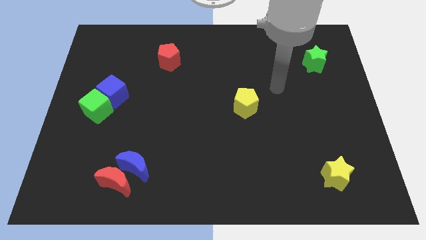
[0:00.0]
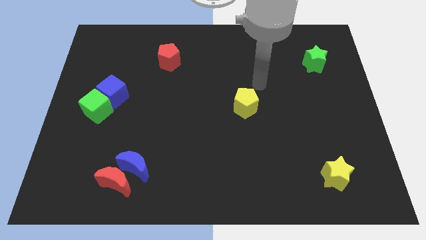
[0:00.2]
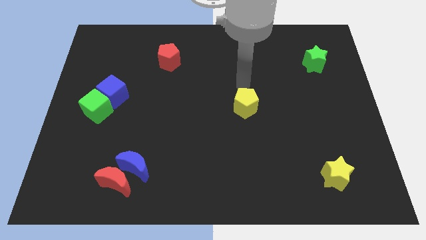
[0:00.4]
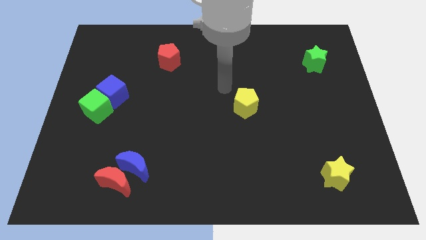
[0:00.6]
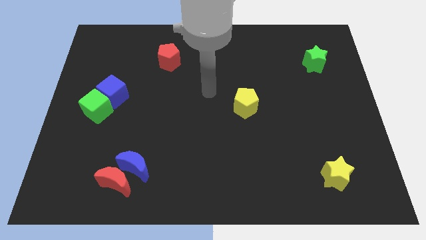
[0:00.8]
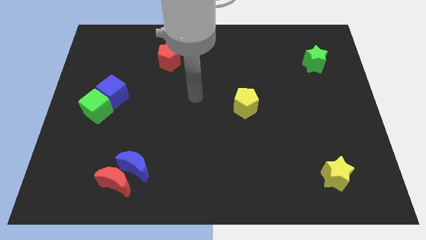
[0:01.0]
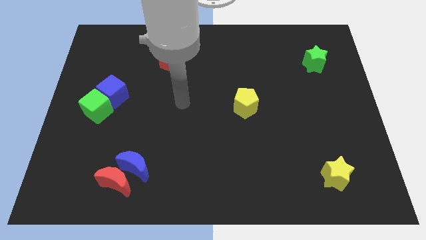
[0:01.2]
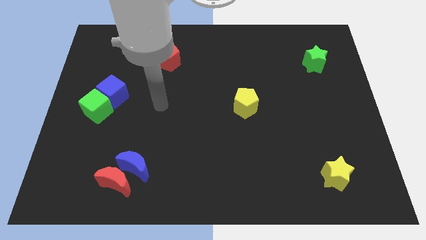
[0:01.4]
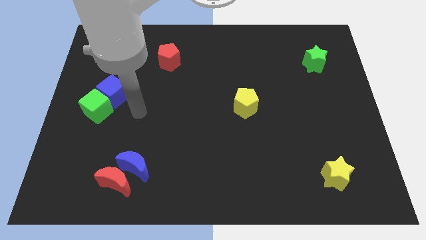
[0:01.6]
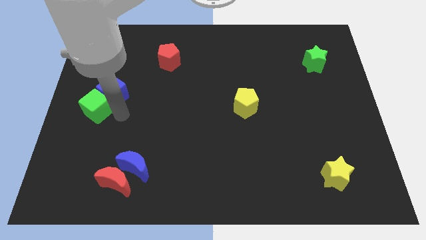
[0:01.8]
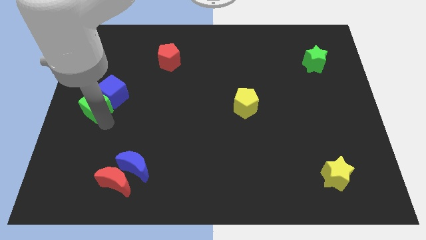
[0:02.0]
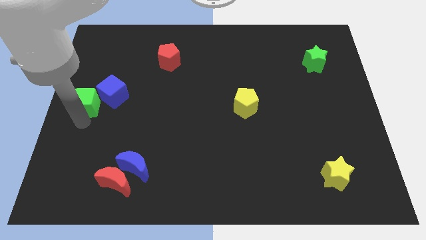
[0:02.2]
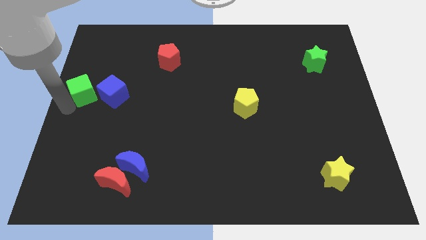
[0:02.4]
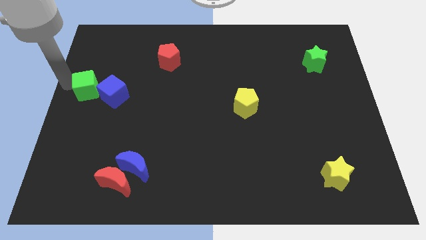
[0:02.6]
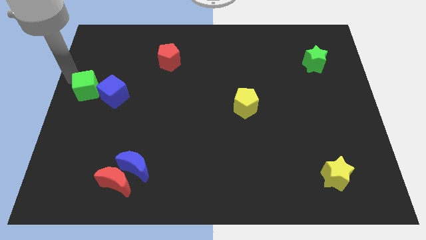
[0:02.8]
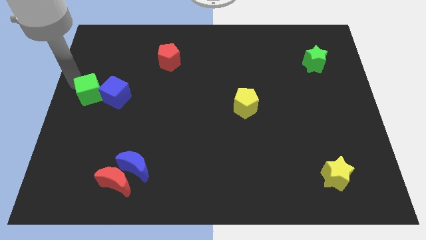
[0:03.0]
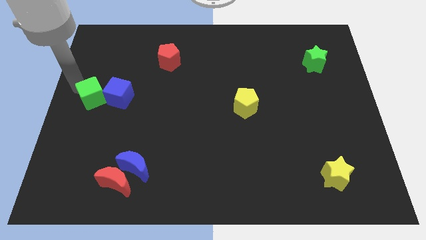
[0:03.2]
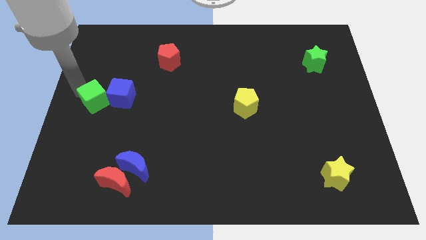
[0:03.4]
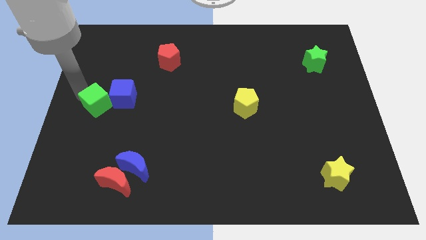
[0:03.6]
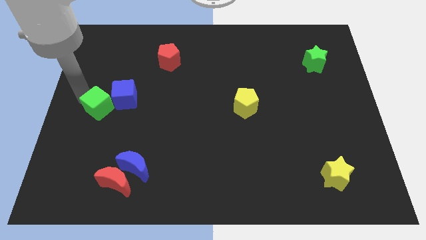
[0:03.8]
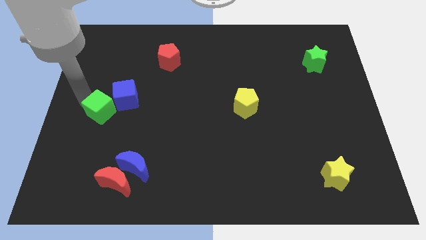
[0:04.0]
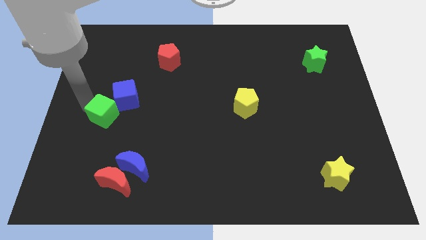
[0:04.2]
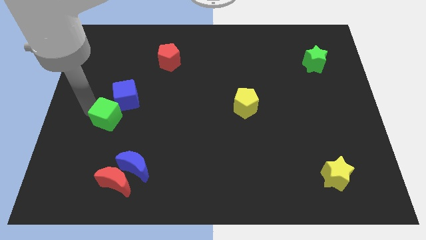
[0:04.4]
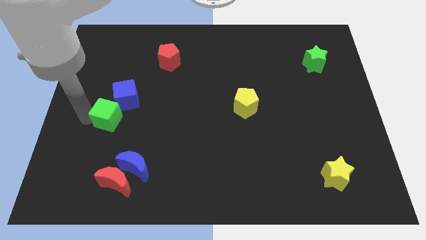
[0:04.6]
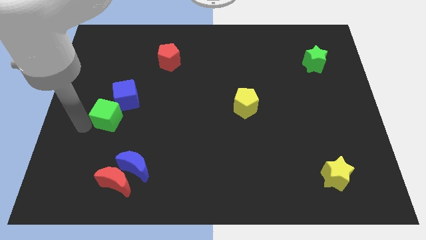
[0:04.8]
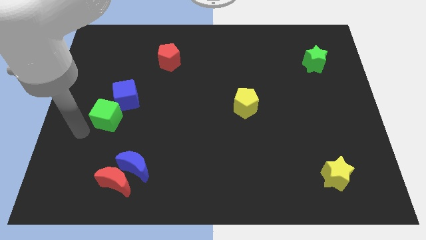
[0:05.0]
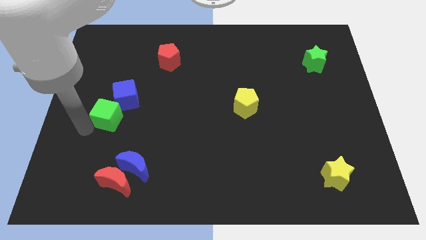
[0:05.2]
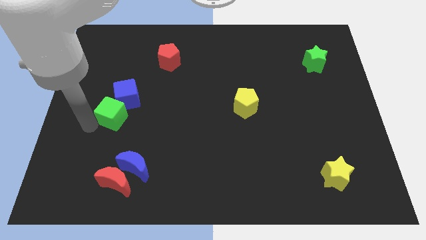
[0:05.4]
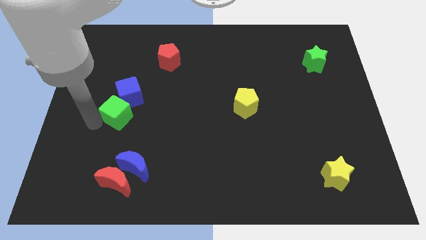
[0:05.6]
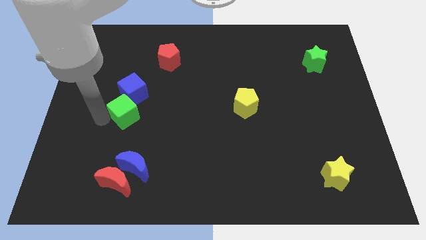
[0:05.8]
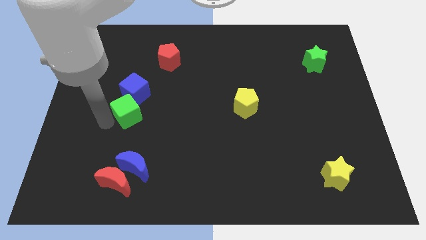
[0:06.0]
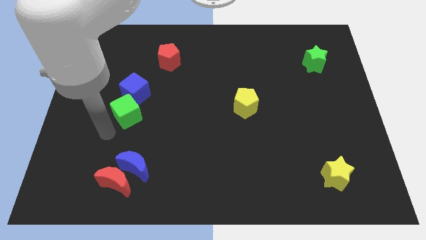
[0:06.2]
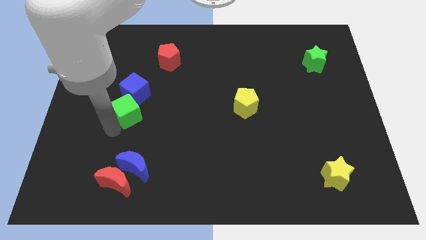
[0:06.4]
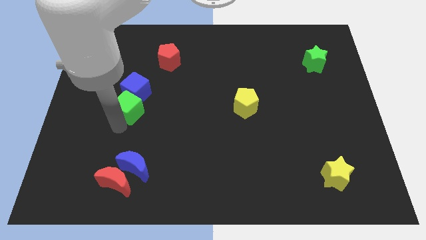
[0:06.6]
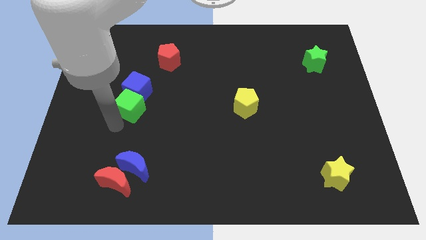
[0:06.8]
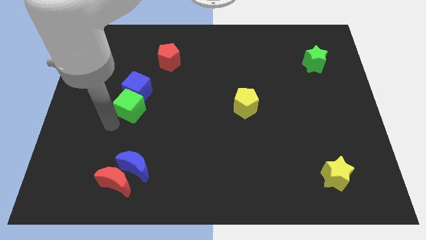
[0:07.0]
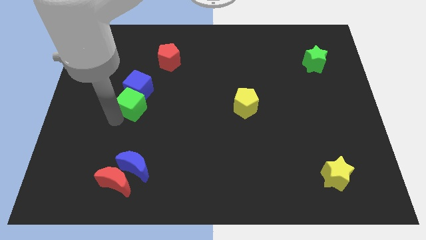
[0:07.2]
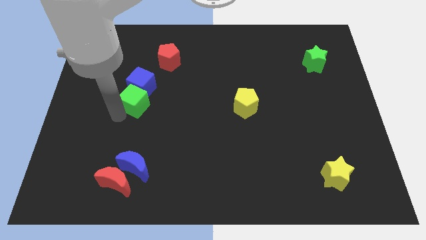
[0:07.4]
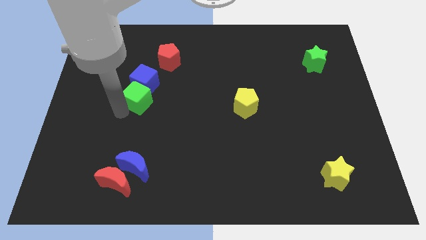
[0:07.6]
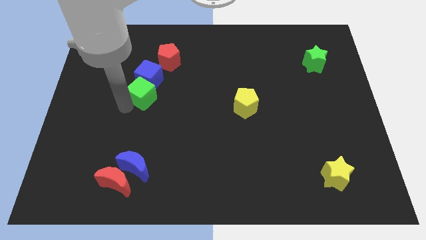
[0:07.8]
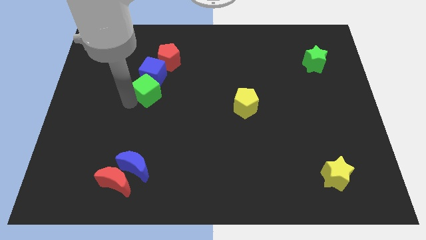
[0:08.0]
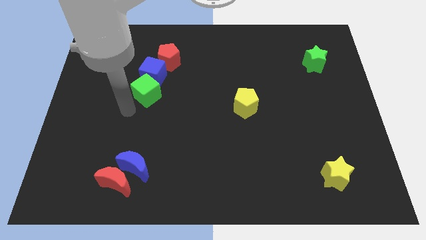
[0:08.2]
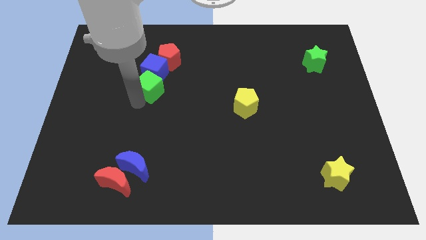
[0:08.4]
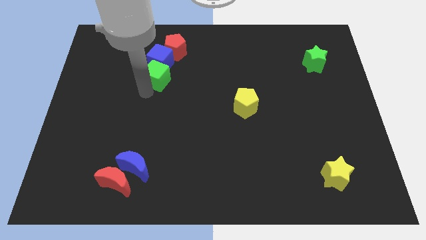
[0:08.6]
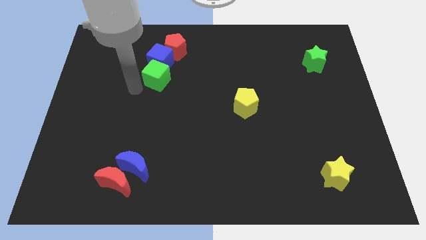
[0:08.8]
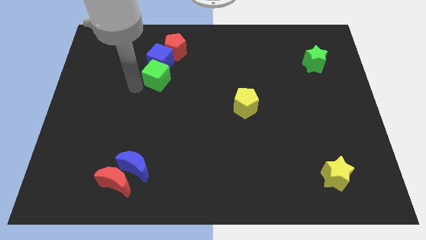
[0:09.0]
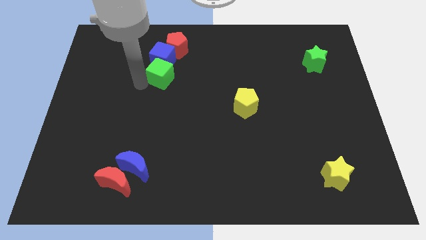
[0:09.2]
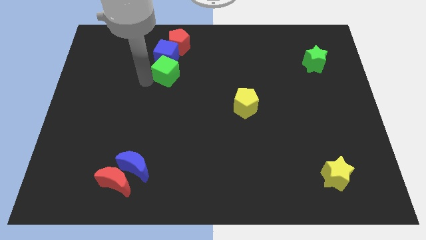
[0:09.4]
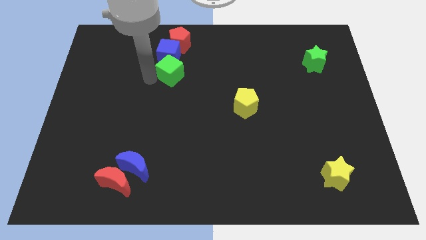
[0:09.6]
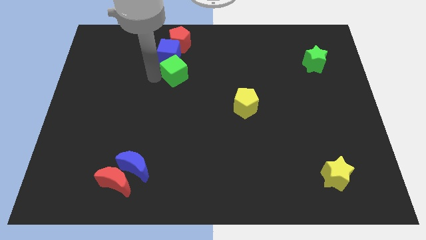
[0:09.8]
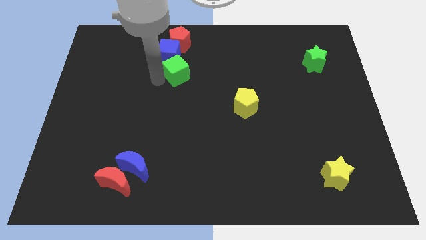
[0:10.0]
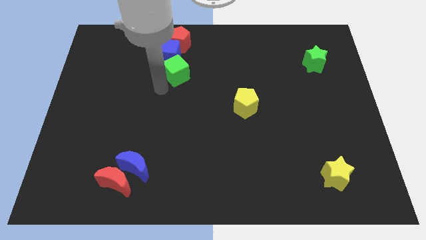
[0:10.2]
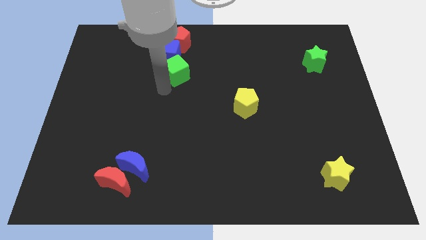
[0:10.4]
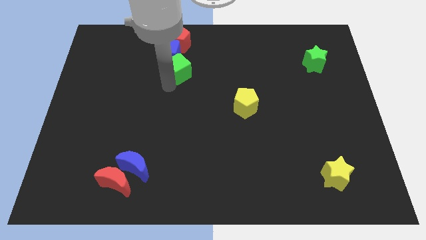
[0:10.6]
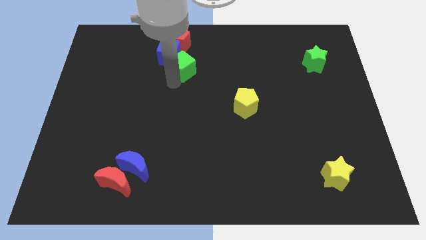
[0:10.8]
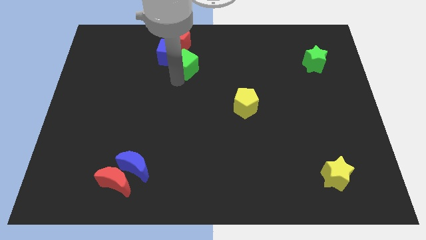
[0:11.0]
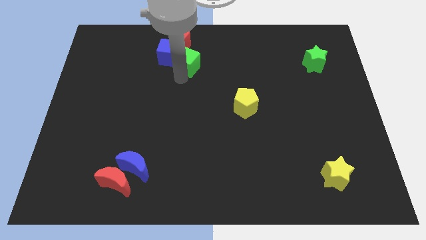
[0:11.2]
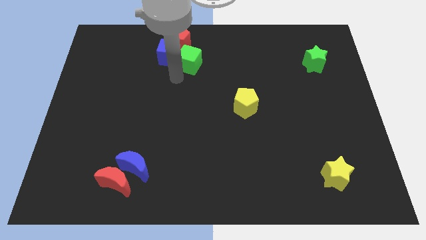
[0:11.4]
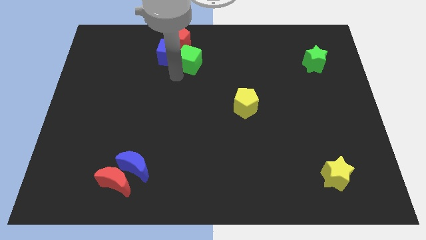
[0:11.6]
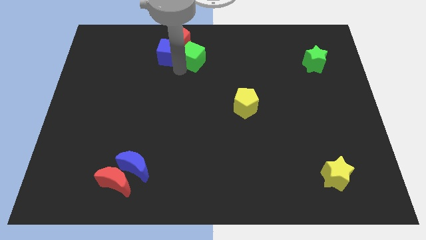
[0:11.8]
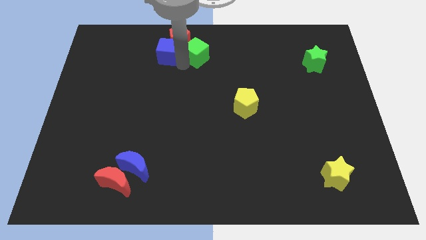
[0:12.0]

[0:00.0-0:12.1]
move the green cube to the towards your base
